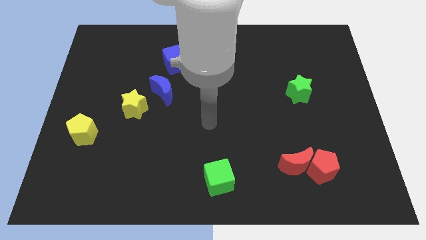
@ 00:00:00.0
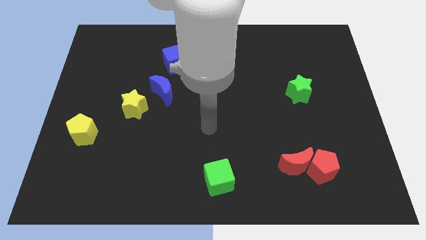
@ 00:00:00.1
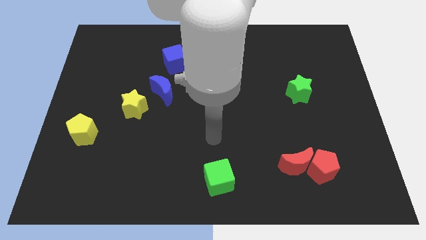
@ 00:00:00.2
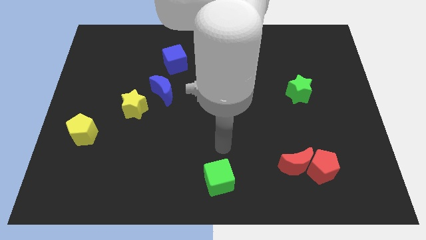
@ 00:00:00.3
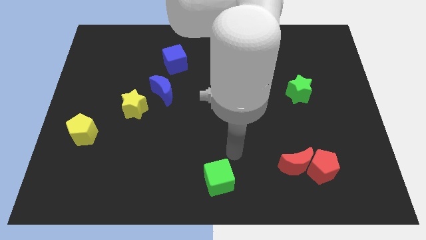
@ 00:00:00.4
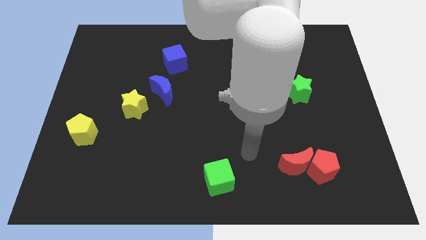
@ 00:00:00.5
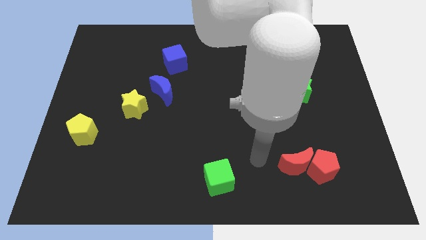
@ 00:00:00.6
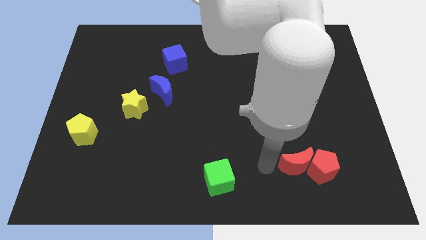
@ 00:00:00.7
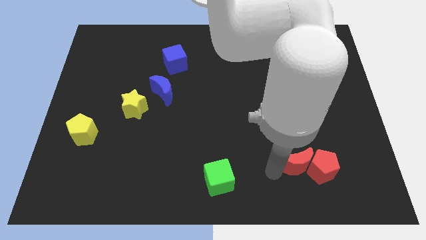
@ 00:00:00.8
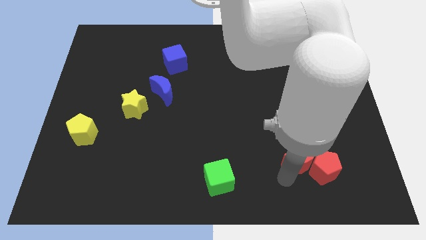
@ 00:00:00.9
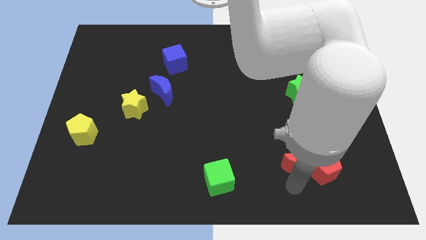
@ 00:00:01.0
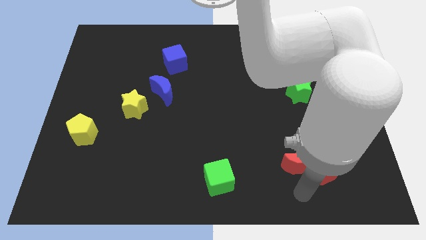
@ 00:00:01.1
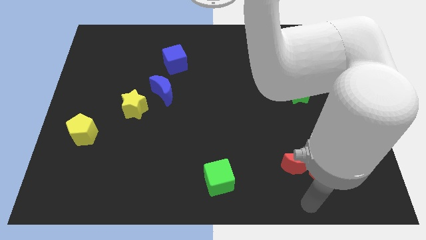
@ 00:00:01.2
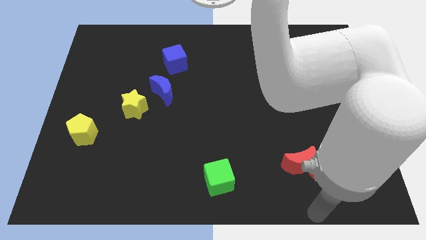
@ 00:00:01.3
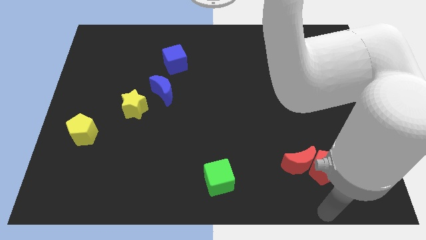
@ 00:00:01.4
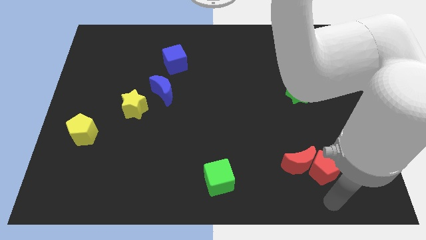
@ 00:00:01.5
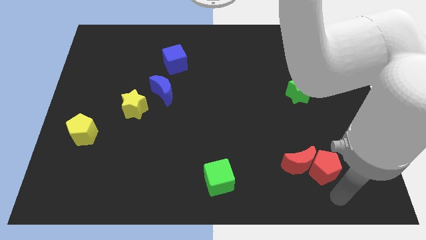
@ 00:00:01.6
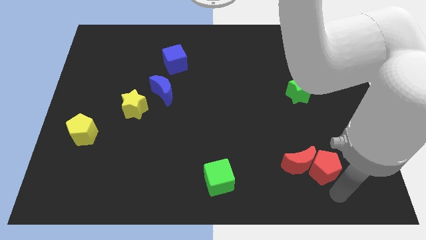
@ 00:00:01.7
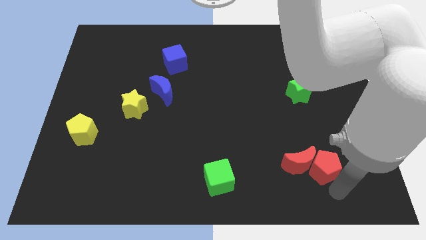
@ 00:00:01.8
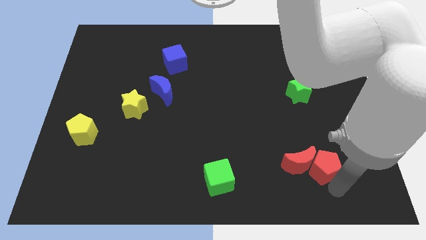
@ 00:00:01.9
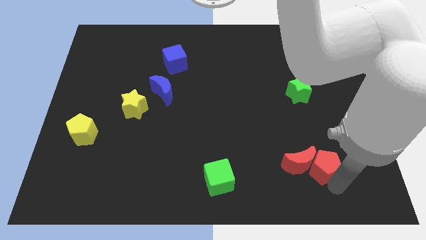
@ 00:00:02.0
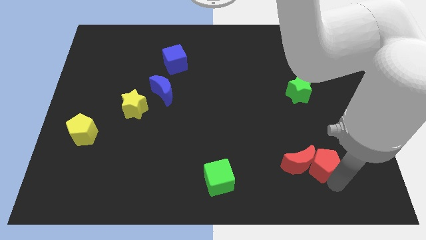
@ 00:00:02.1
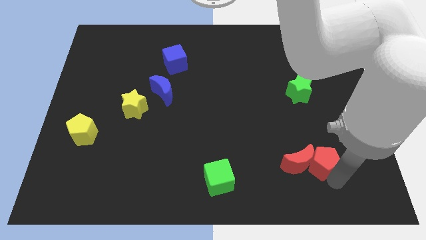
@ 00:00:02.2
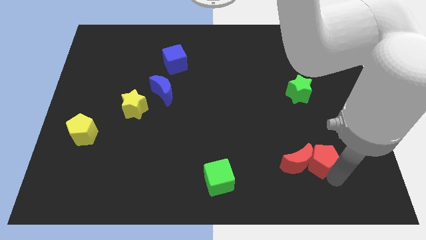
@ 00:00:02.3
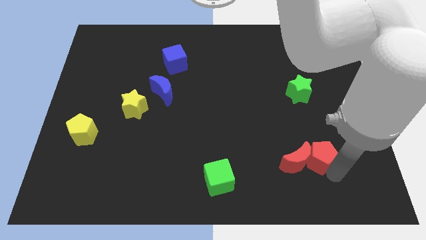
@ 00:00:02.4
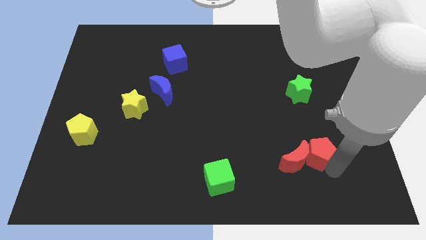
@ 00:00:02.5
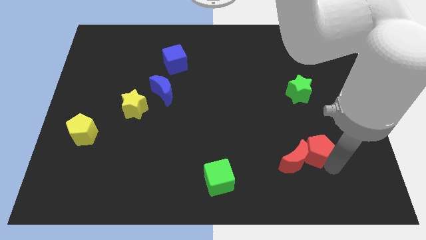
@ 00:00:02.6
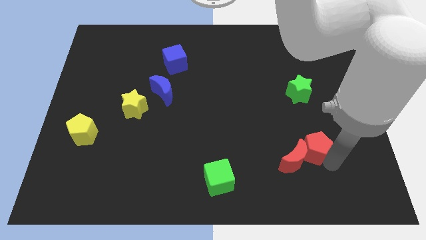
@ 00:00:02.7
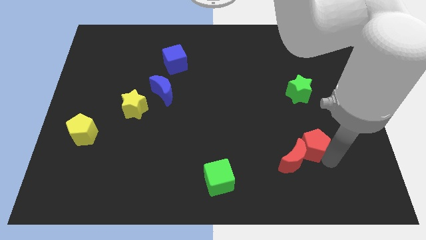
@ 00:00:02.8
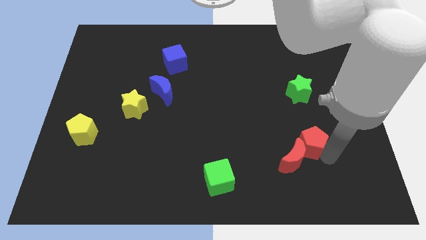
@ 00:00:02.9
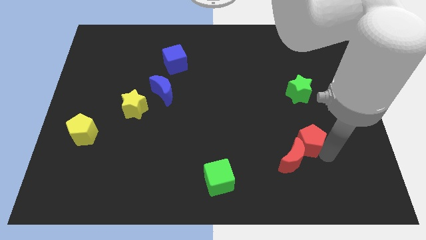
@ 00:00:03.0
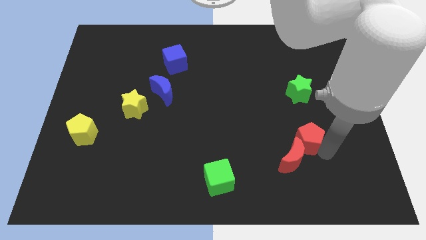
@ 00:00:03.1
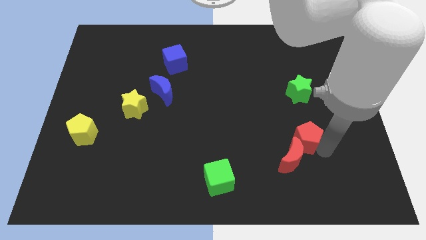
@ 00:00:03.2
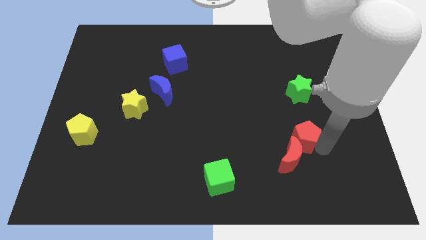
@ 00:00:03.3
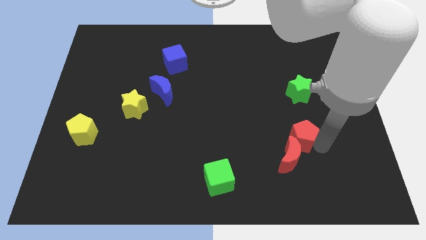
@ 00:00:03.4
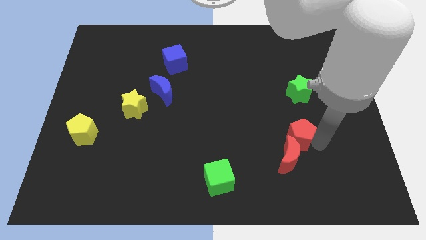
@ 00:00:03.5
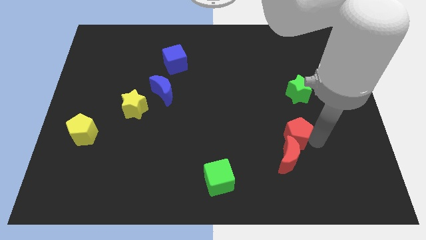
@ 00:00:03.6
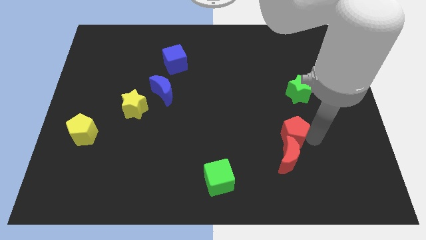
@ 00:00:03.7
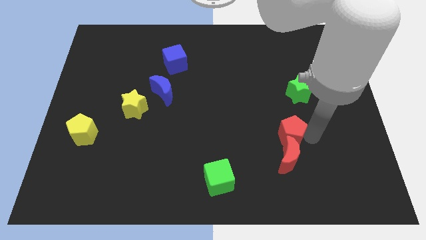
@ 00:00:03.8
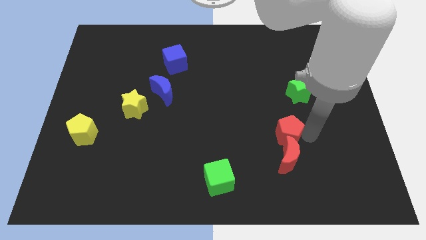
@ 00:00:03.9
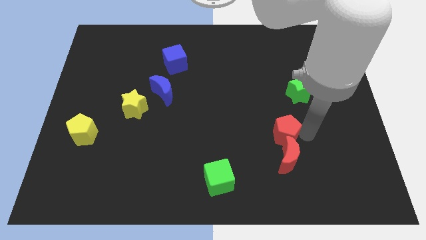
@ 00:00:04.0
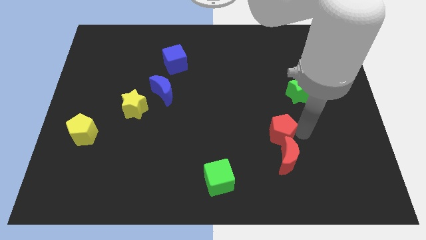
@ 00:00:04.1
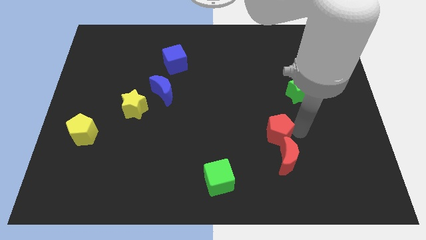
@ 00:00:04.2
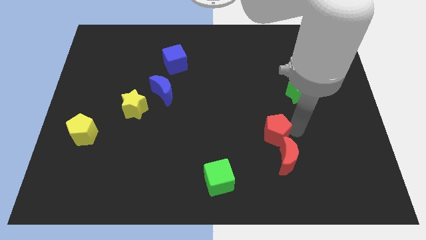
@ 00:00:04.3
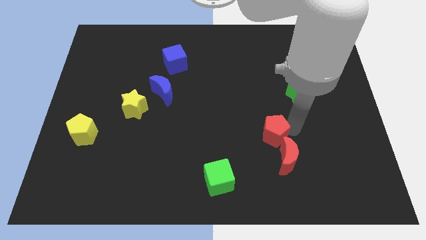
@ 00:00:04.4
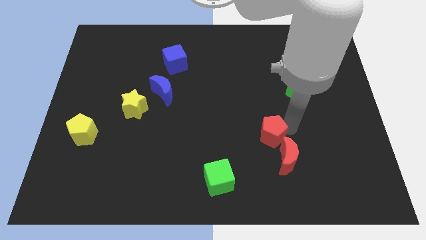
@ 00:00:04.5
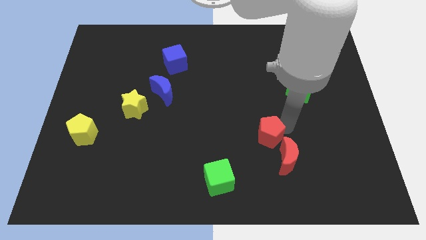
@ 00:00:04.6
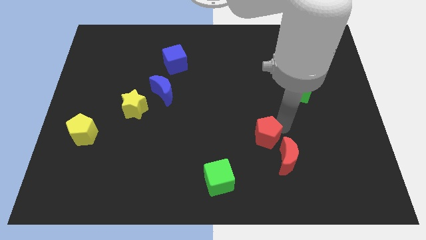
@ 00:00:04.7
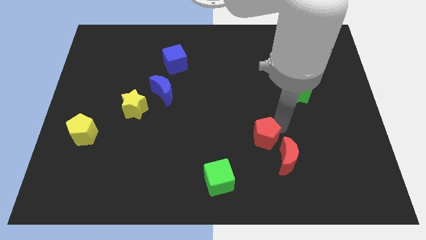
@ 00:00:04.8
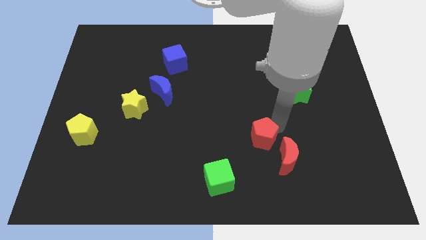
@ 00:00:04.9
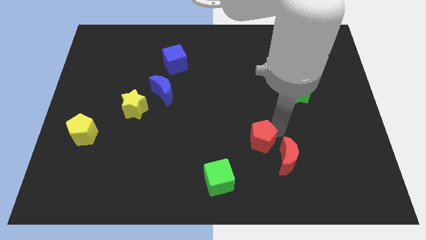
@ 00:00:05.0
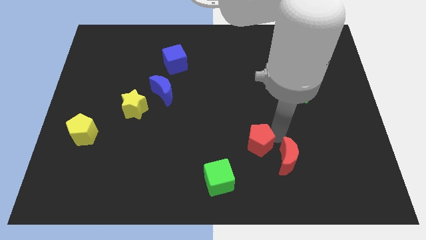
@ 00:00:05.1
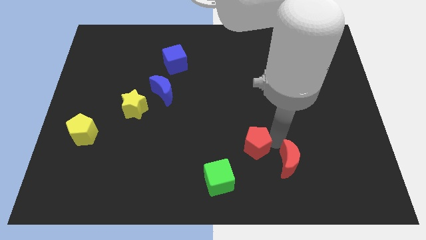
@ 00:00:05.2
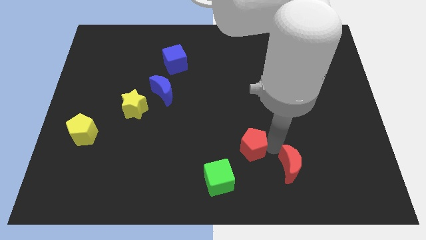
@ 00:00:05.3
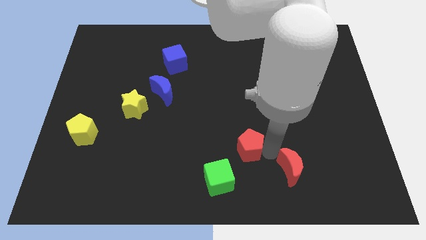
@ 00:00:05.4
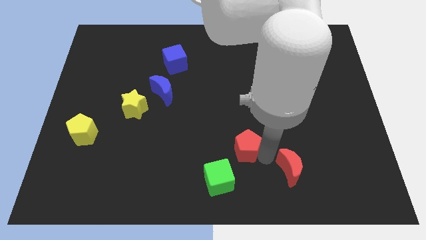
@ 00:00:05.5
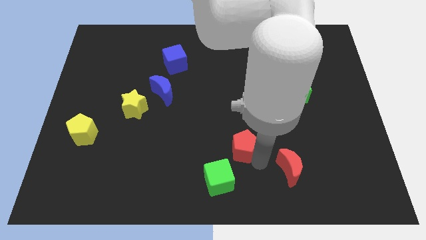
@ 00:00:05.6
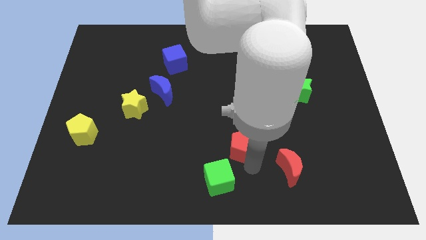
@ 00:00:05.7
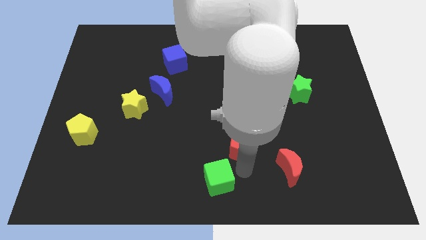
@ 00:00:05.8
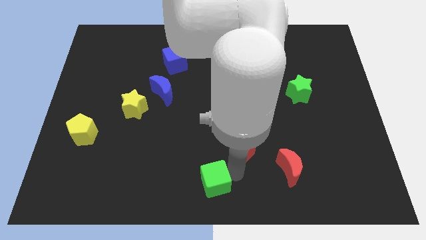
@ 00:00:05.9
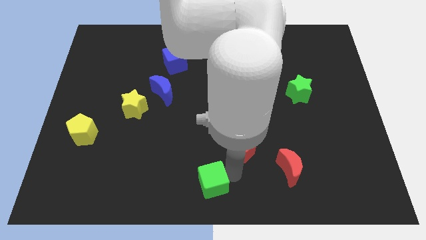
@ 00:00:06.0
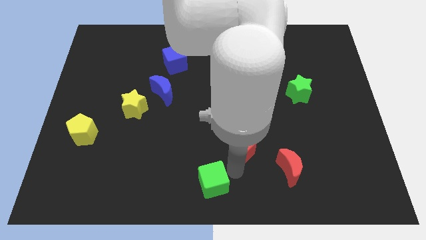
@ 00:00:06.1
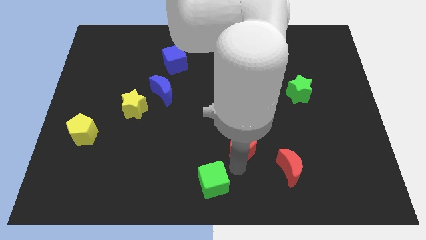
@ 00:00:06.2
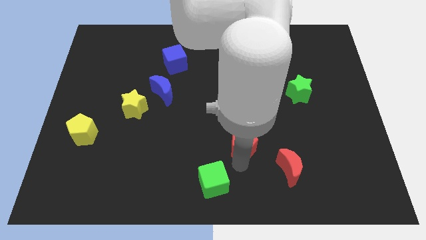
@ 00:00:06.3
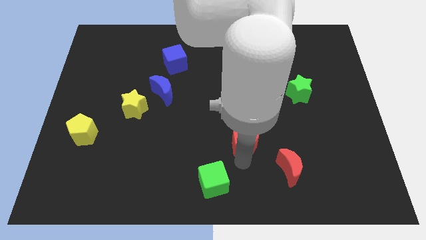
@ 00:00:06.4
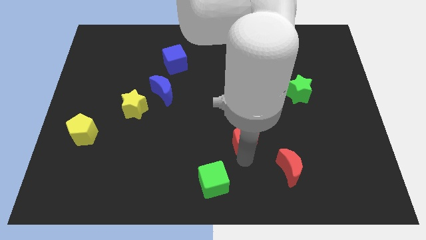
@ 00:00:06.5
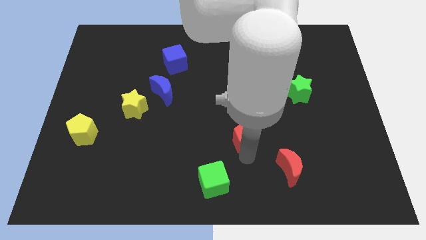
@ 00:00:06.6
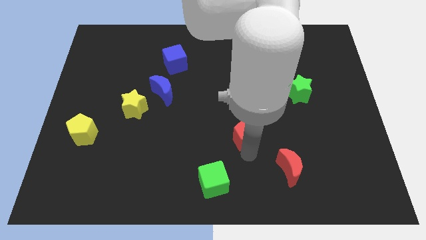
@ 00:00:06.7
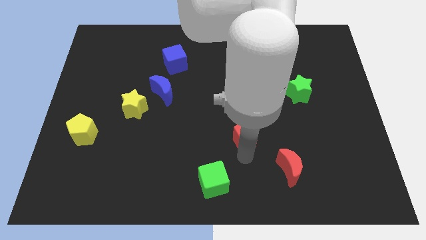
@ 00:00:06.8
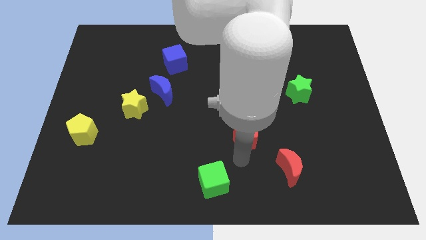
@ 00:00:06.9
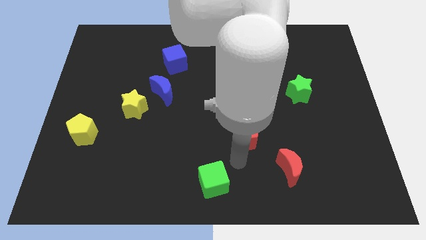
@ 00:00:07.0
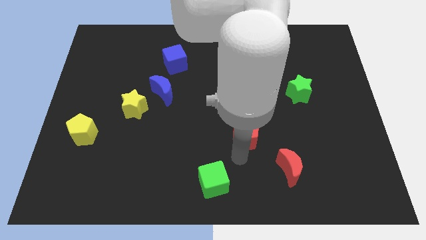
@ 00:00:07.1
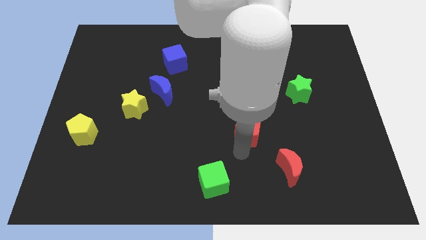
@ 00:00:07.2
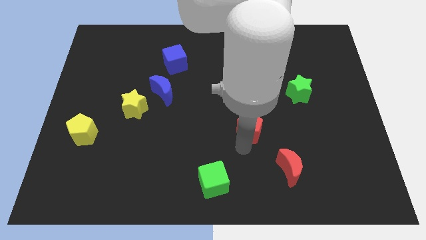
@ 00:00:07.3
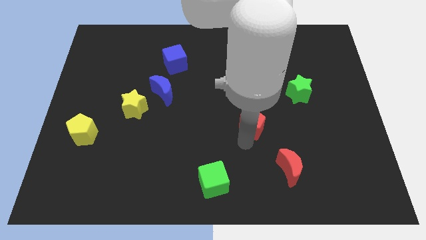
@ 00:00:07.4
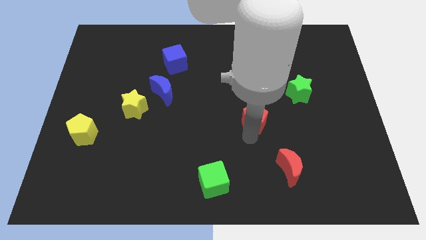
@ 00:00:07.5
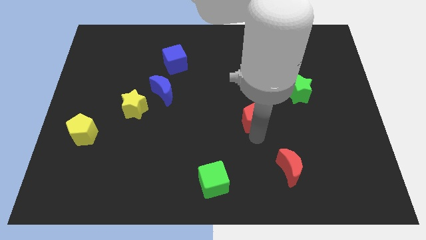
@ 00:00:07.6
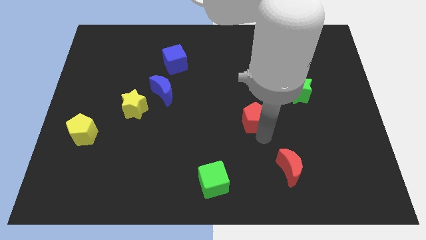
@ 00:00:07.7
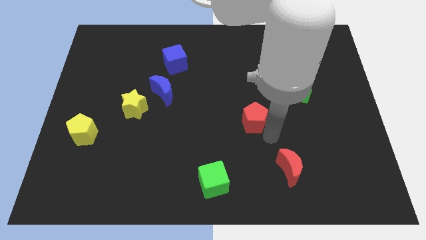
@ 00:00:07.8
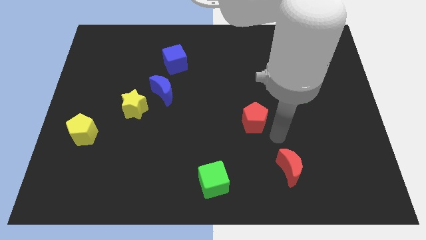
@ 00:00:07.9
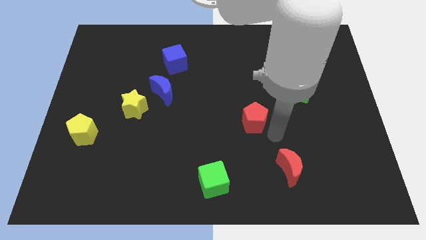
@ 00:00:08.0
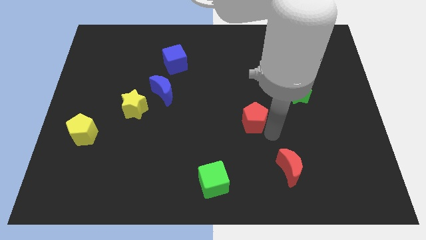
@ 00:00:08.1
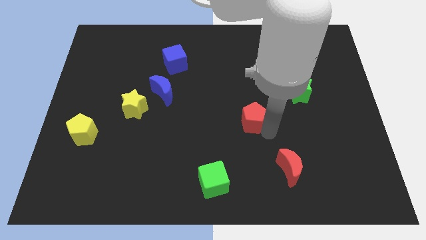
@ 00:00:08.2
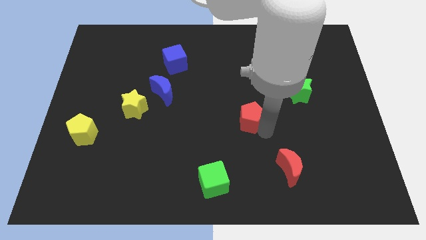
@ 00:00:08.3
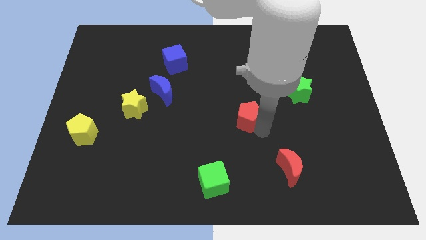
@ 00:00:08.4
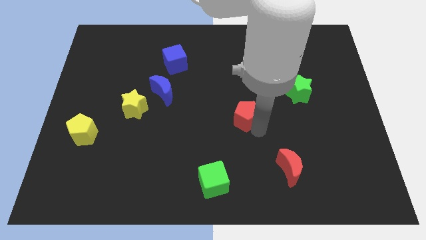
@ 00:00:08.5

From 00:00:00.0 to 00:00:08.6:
move the red pentagon up and then to the left
